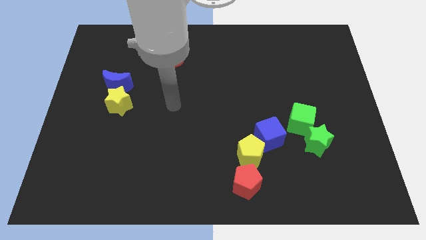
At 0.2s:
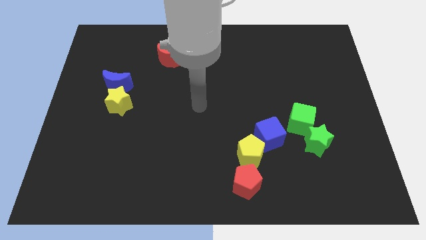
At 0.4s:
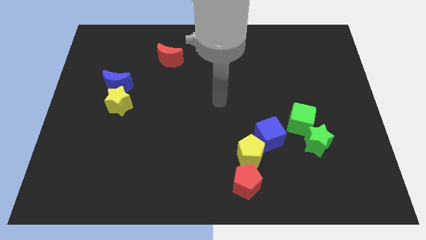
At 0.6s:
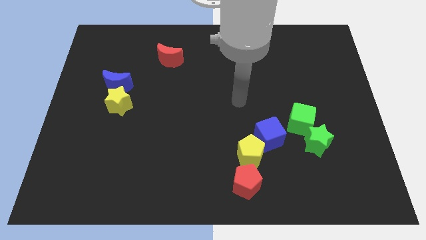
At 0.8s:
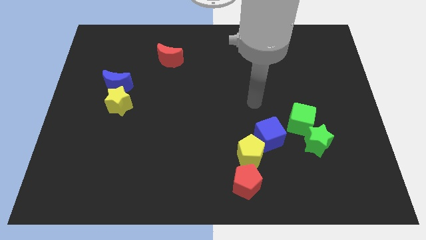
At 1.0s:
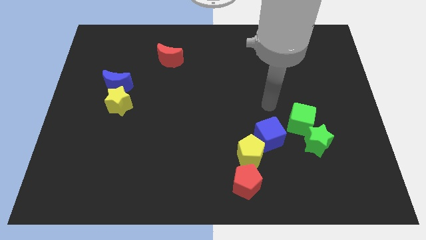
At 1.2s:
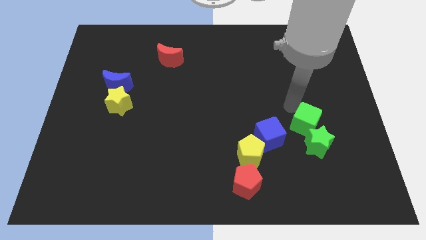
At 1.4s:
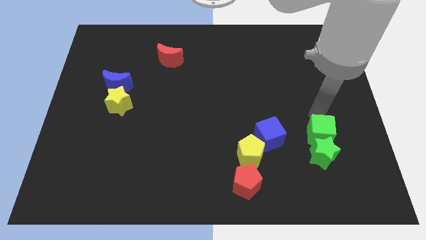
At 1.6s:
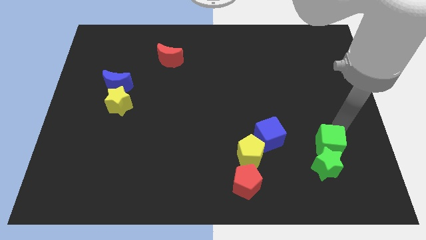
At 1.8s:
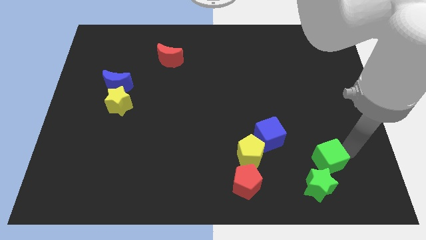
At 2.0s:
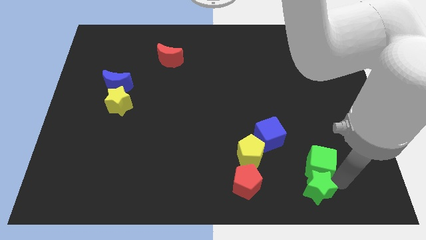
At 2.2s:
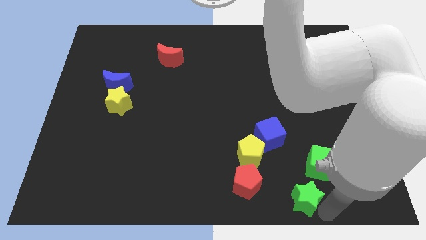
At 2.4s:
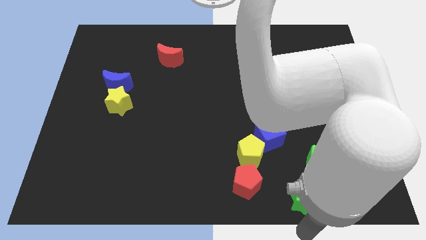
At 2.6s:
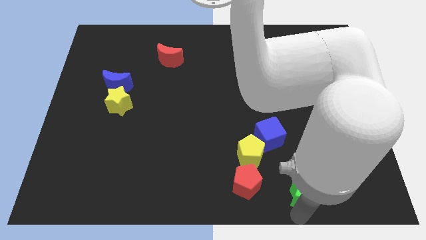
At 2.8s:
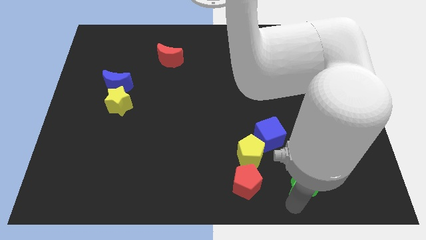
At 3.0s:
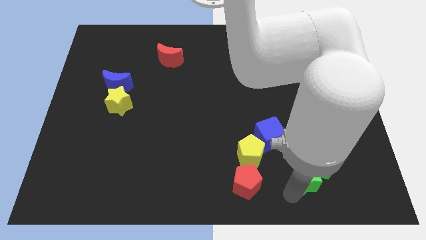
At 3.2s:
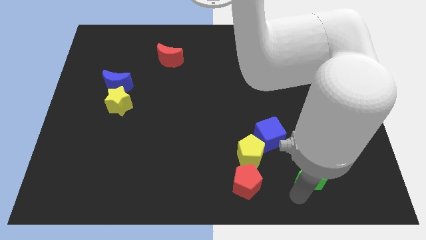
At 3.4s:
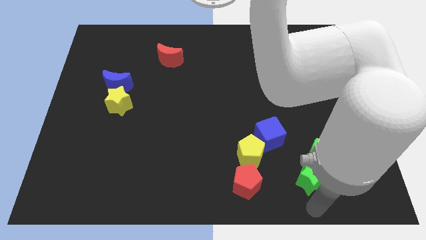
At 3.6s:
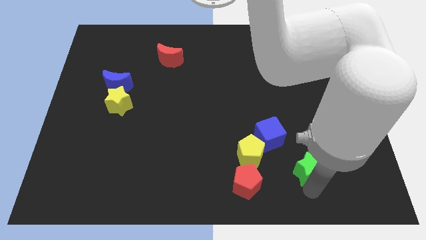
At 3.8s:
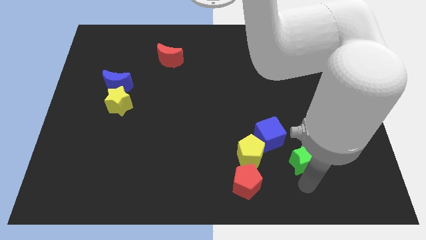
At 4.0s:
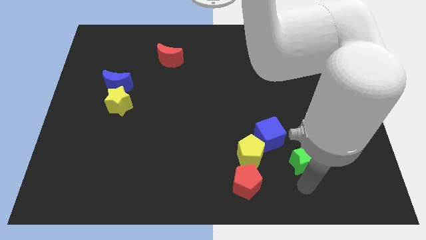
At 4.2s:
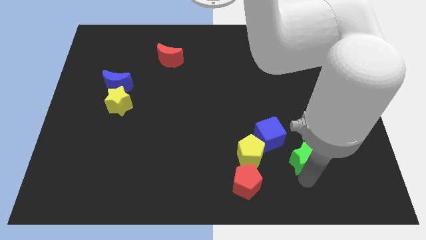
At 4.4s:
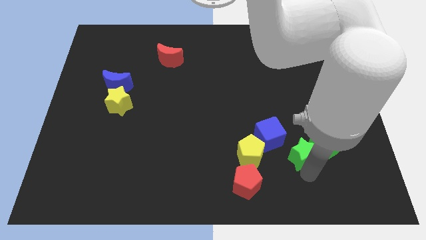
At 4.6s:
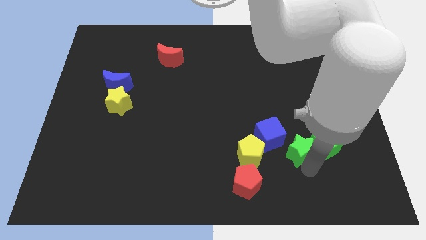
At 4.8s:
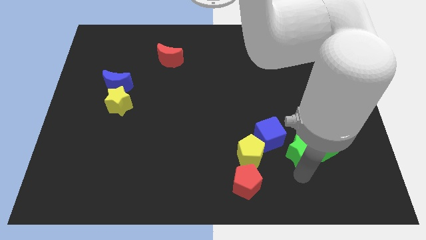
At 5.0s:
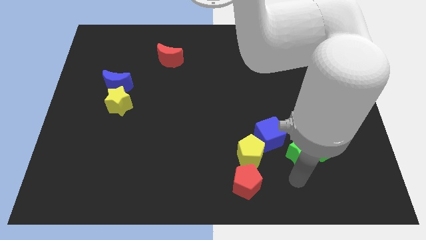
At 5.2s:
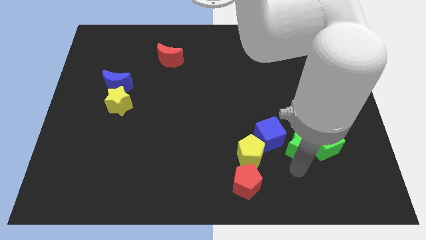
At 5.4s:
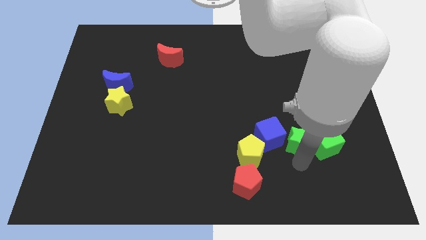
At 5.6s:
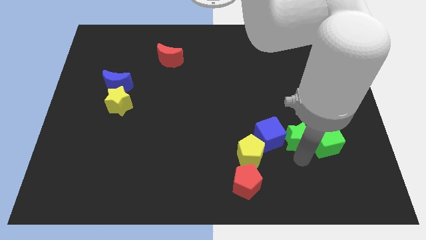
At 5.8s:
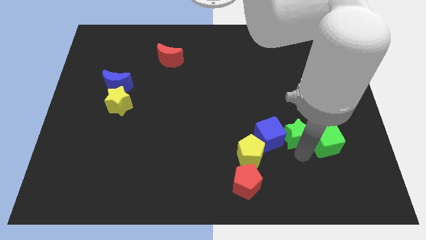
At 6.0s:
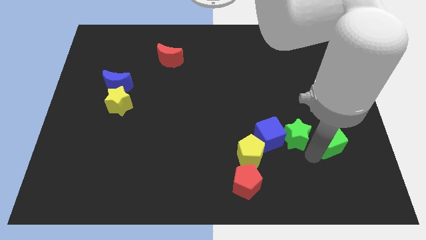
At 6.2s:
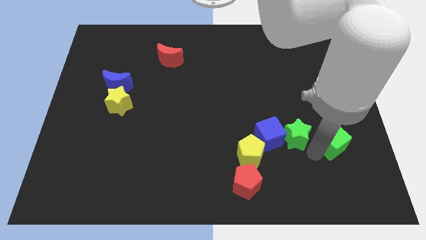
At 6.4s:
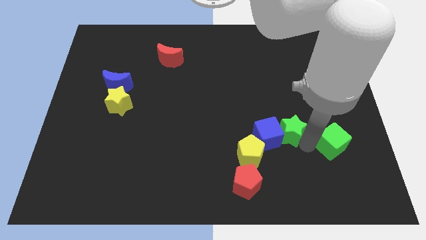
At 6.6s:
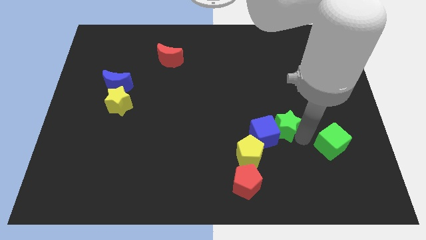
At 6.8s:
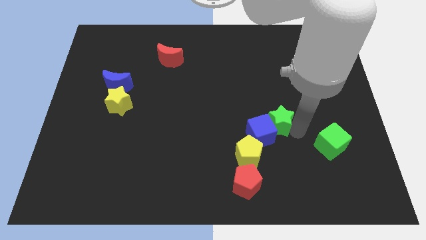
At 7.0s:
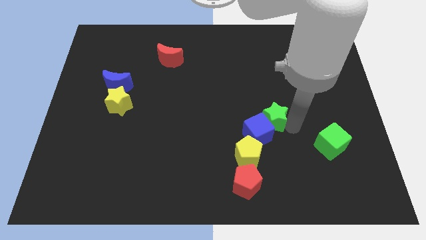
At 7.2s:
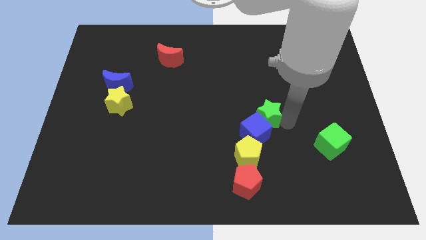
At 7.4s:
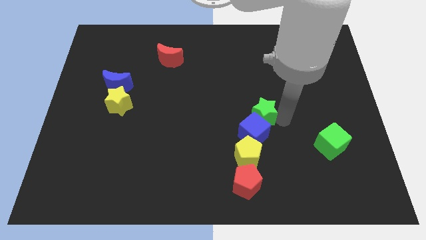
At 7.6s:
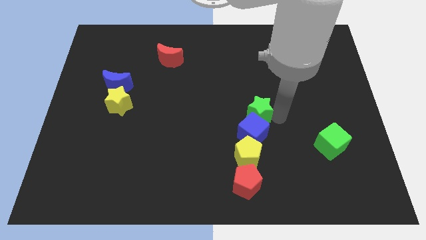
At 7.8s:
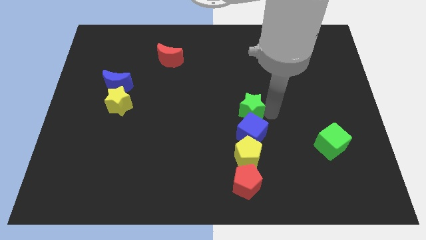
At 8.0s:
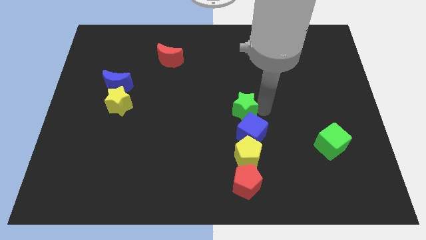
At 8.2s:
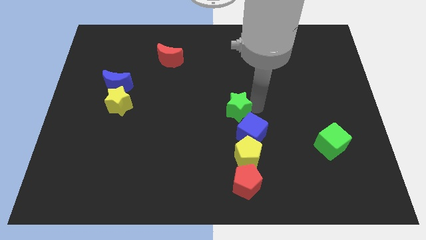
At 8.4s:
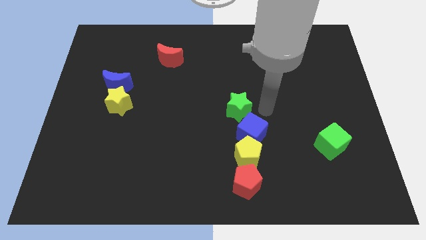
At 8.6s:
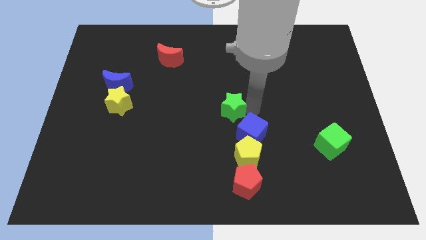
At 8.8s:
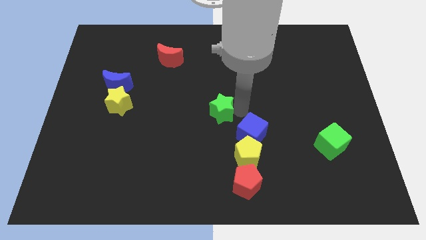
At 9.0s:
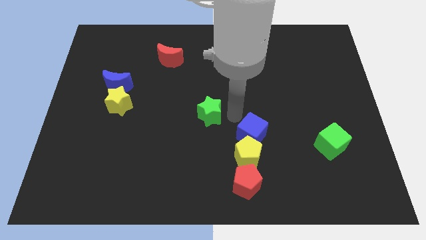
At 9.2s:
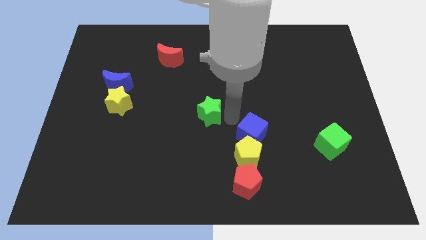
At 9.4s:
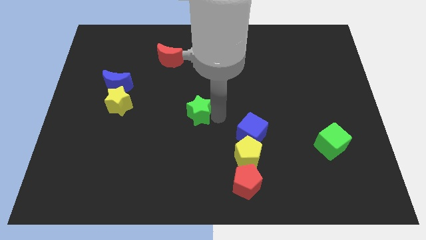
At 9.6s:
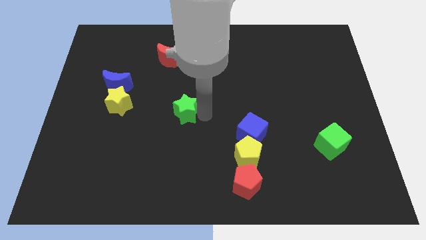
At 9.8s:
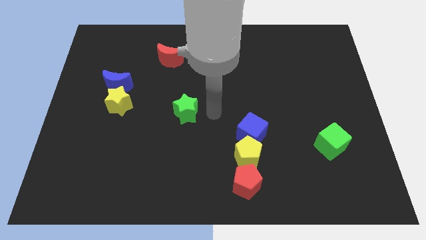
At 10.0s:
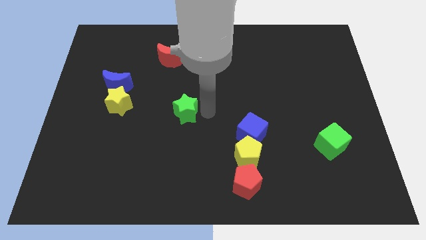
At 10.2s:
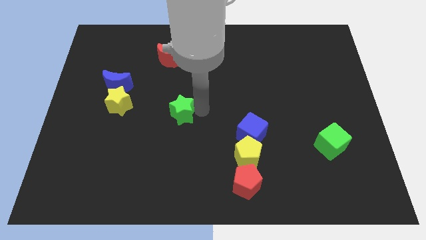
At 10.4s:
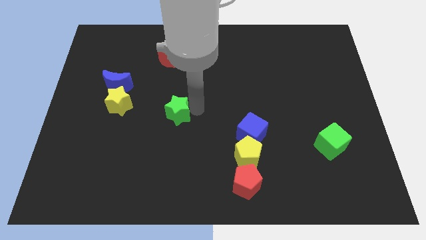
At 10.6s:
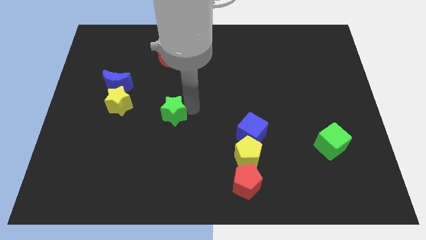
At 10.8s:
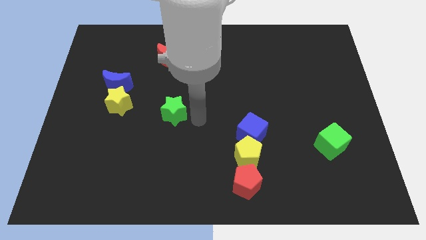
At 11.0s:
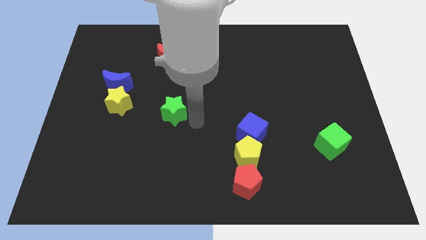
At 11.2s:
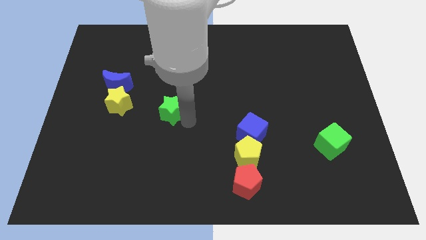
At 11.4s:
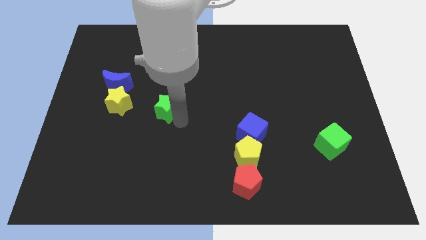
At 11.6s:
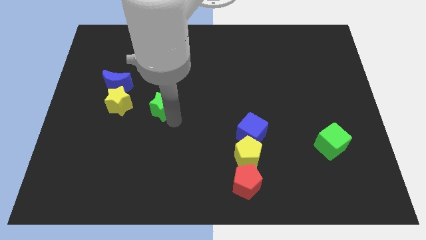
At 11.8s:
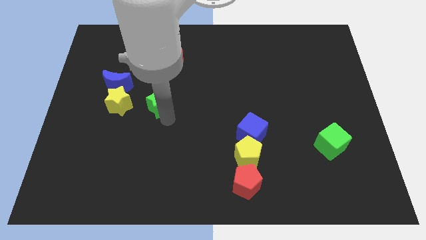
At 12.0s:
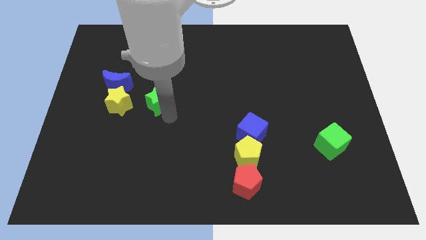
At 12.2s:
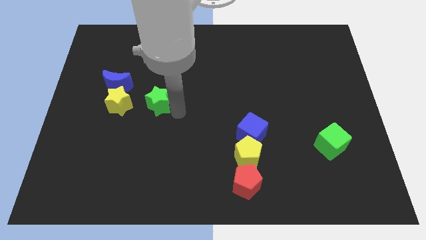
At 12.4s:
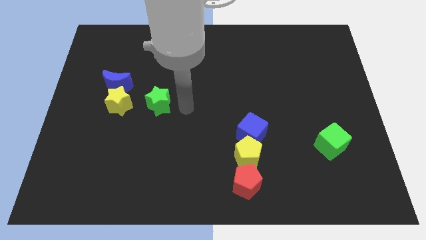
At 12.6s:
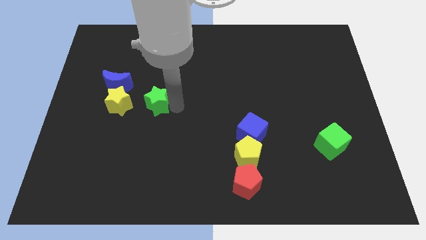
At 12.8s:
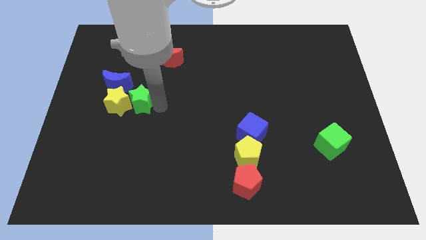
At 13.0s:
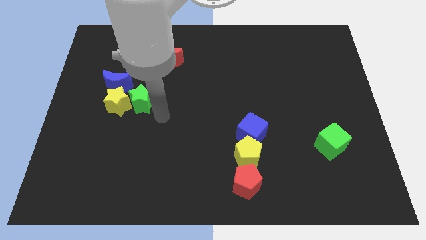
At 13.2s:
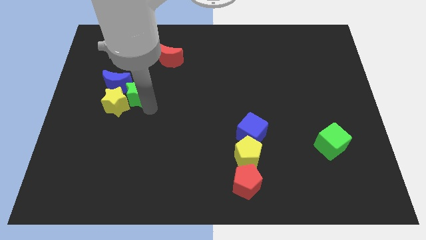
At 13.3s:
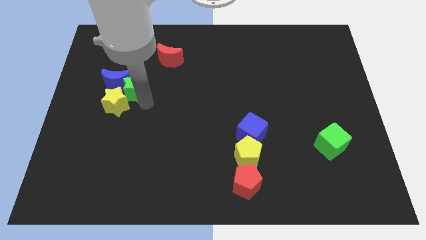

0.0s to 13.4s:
put the green star to the blue moon

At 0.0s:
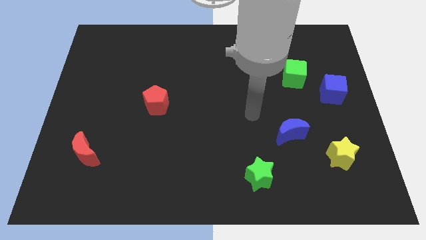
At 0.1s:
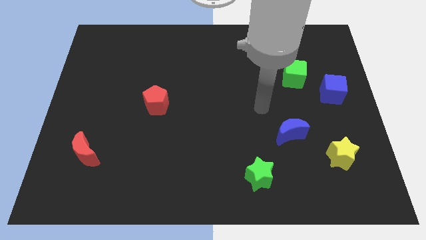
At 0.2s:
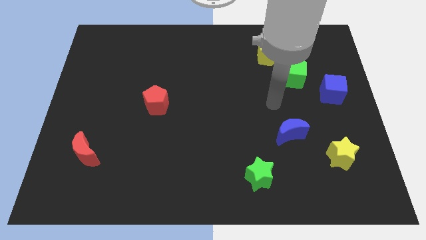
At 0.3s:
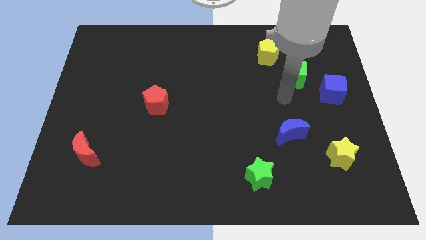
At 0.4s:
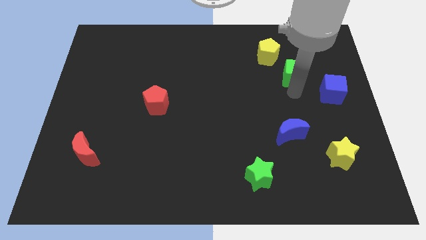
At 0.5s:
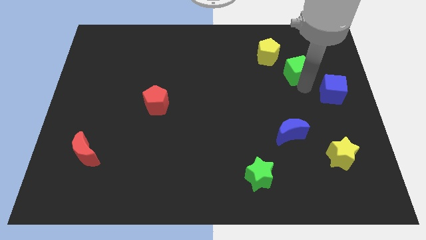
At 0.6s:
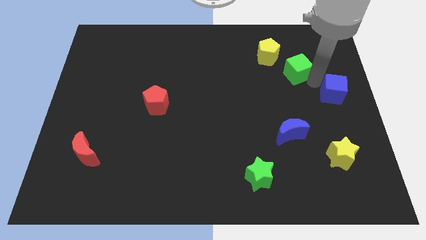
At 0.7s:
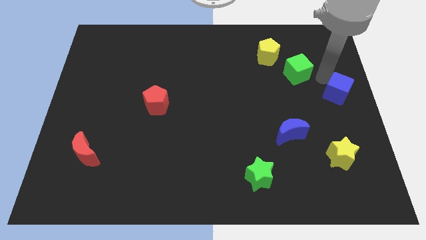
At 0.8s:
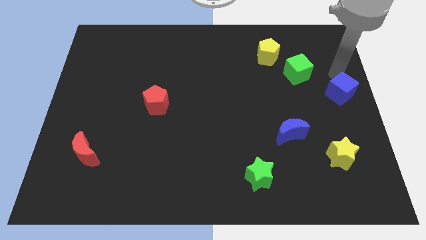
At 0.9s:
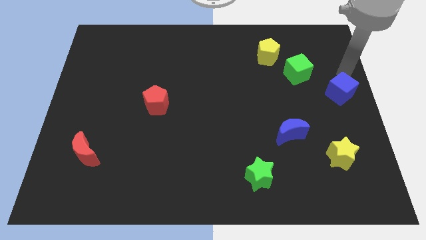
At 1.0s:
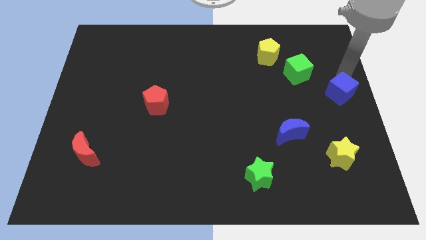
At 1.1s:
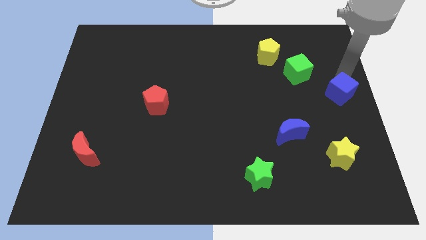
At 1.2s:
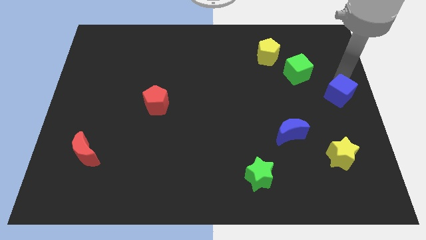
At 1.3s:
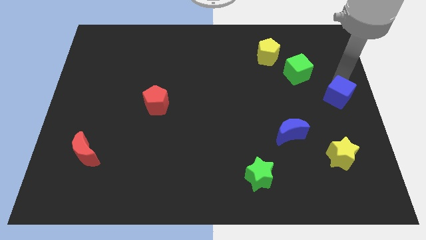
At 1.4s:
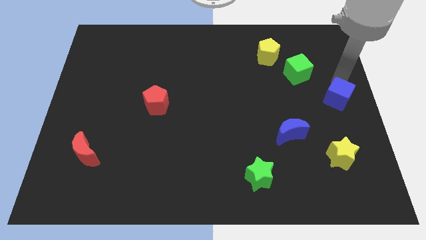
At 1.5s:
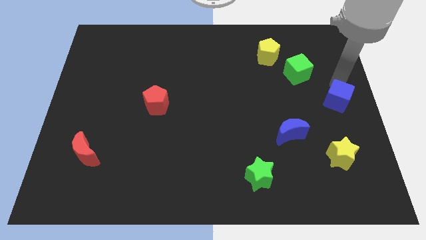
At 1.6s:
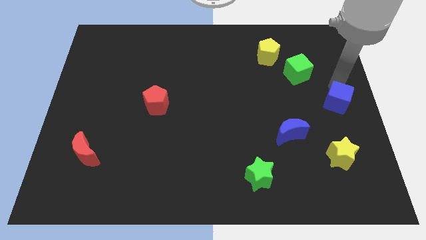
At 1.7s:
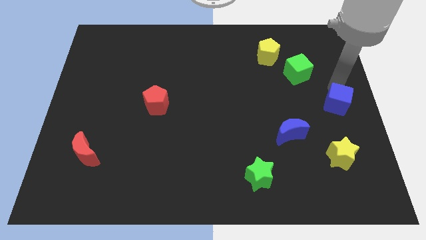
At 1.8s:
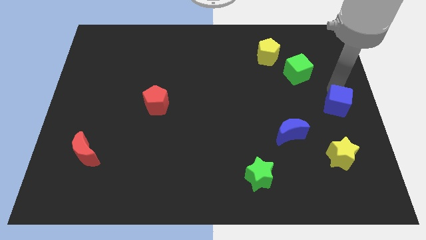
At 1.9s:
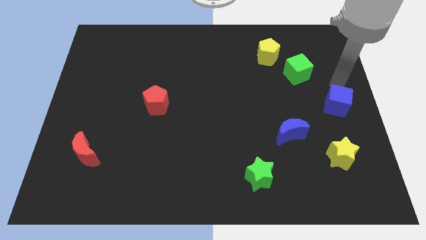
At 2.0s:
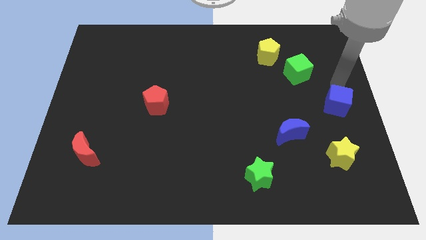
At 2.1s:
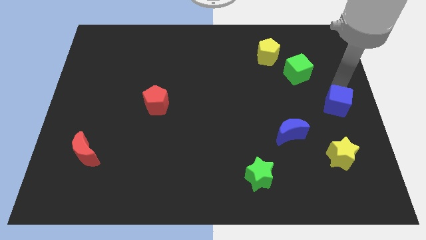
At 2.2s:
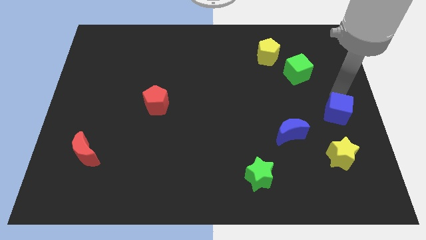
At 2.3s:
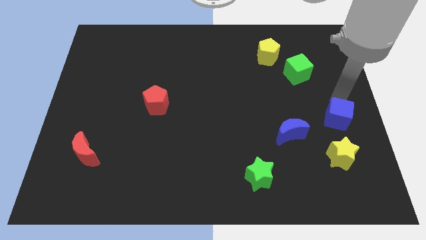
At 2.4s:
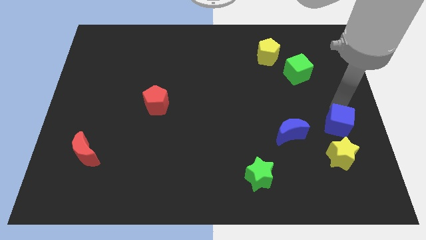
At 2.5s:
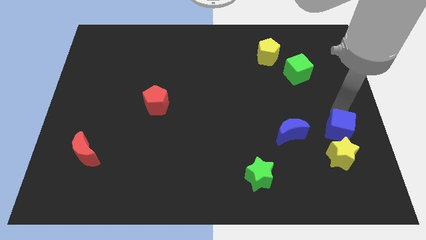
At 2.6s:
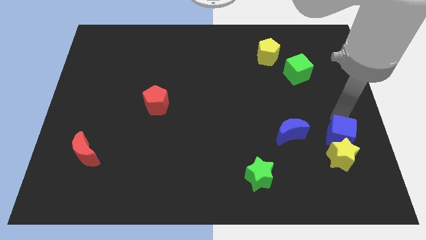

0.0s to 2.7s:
slide the blue cube next to the yellow star
